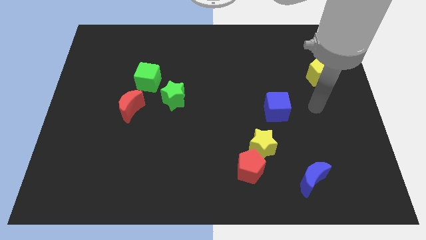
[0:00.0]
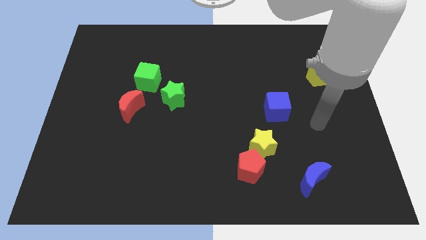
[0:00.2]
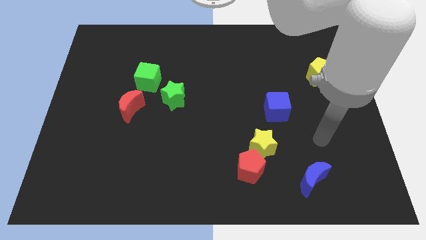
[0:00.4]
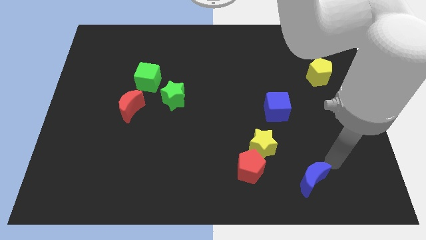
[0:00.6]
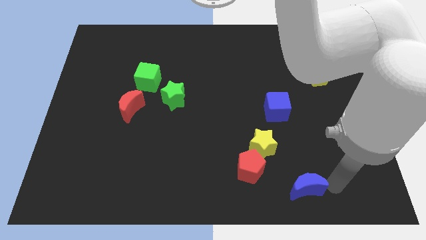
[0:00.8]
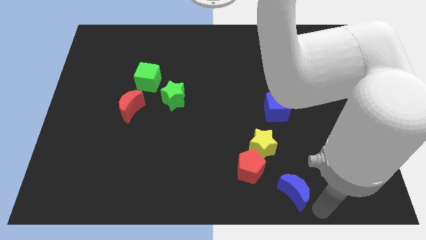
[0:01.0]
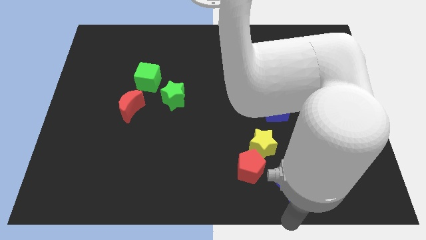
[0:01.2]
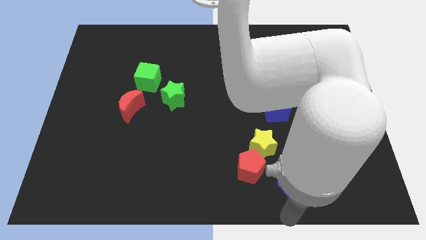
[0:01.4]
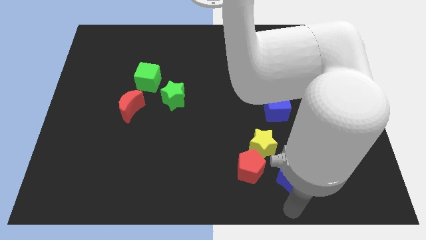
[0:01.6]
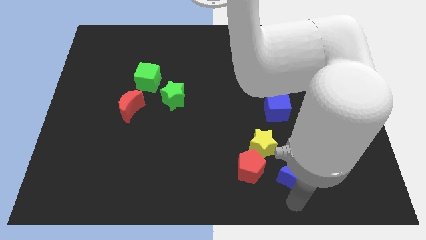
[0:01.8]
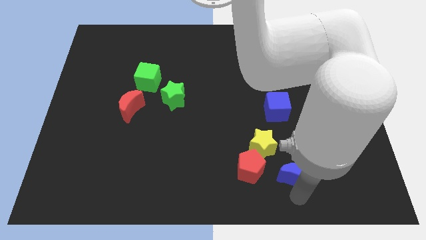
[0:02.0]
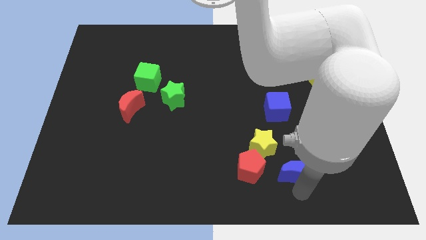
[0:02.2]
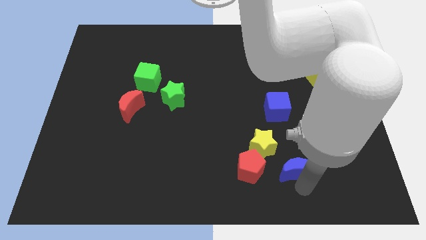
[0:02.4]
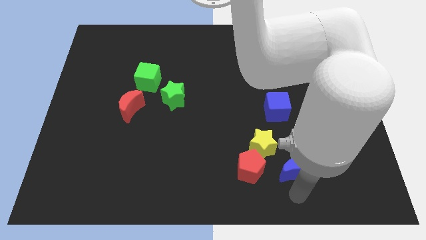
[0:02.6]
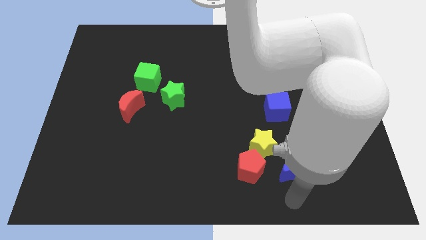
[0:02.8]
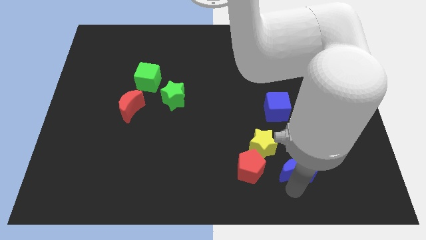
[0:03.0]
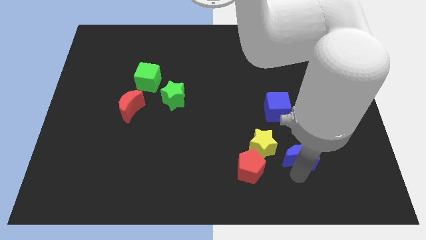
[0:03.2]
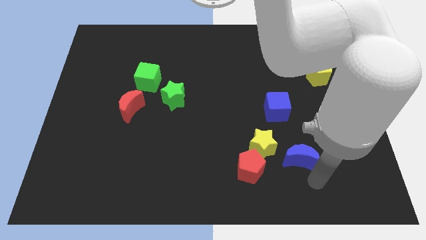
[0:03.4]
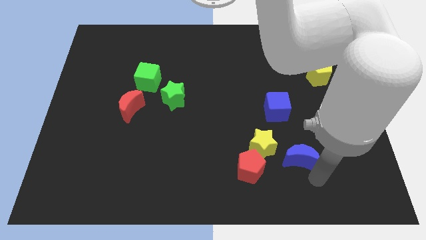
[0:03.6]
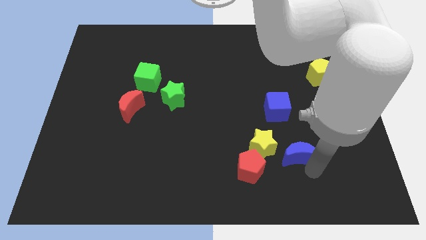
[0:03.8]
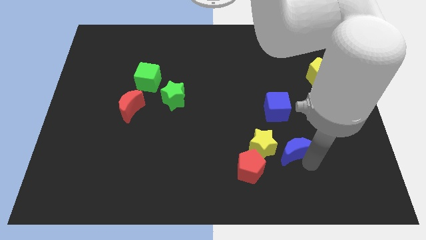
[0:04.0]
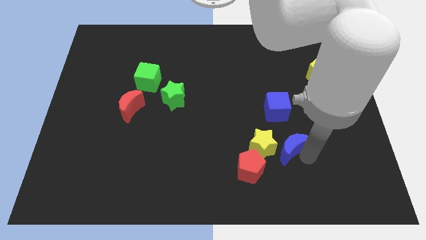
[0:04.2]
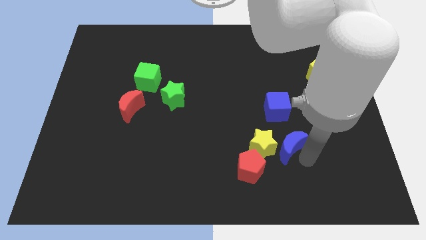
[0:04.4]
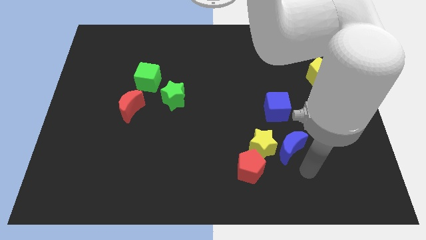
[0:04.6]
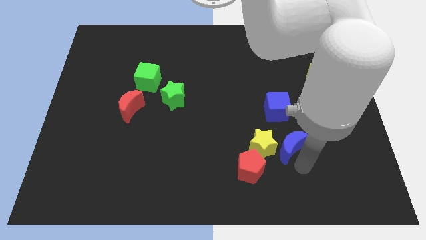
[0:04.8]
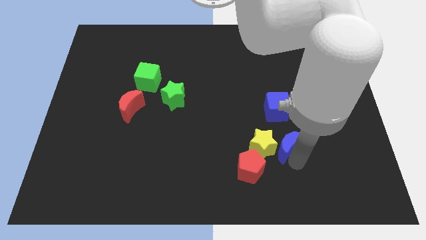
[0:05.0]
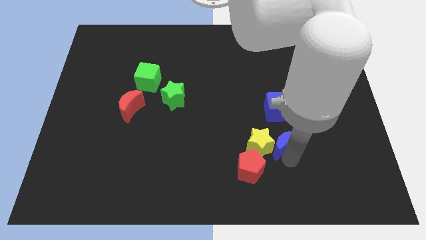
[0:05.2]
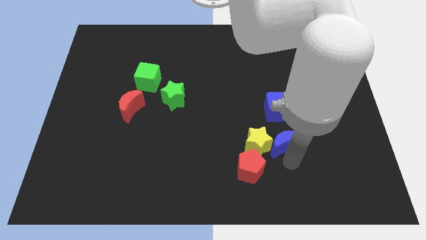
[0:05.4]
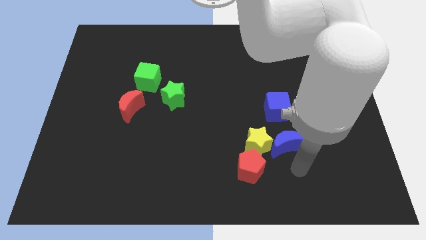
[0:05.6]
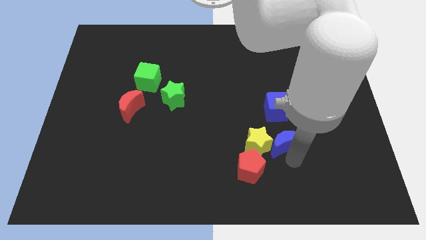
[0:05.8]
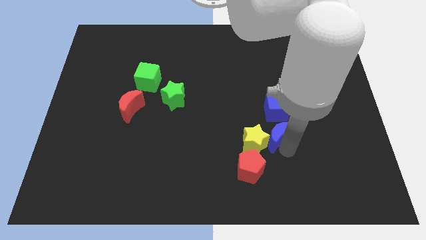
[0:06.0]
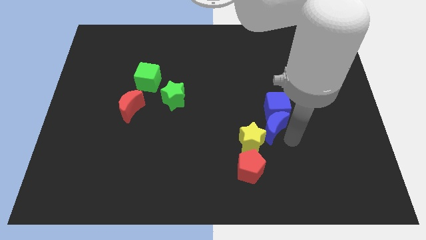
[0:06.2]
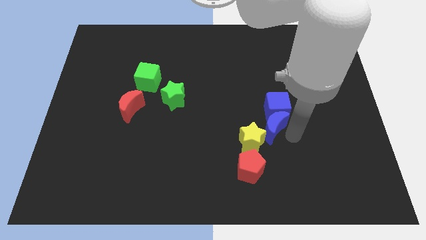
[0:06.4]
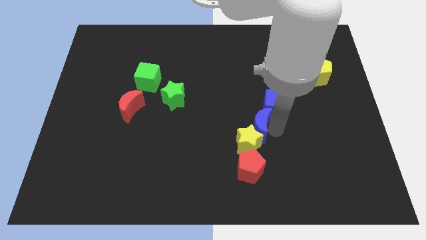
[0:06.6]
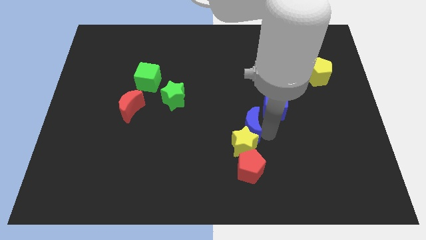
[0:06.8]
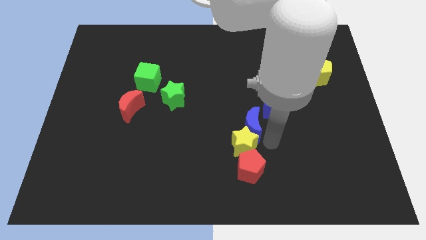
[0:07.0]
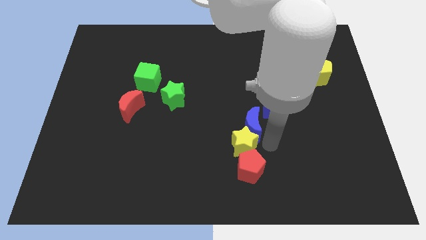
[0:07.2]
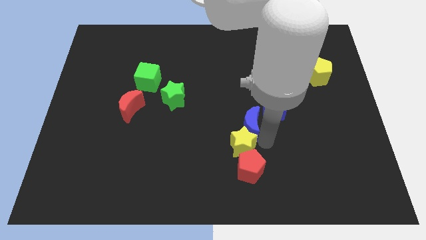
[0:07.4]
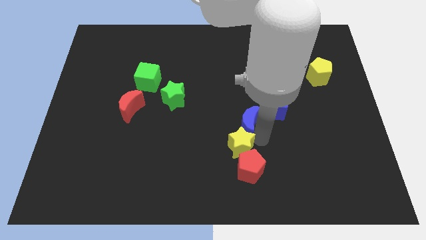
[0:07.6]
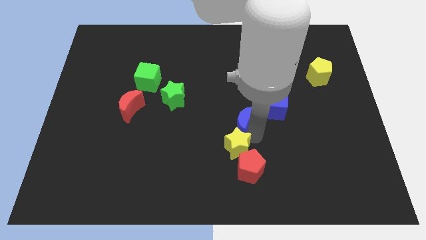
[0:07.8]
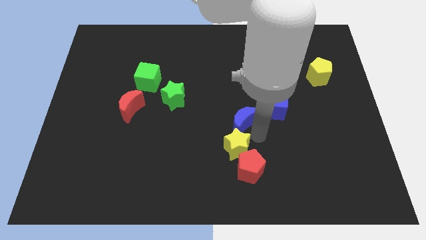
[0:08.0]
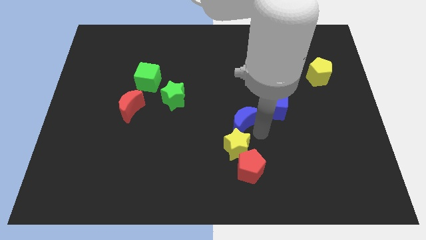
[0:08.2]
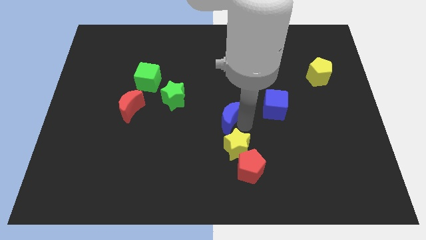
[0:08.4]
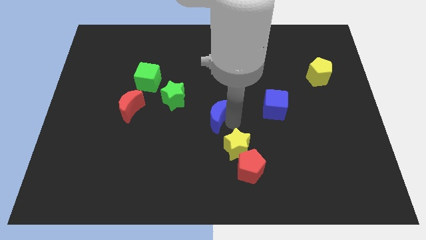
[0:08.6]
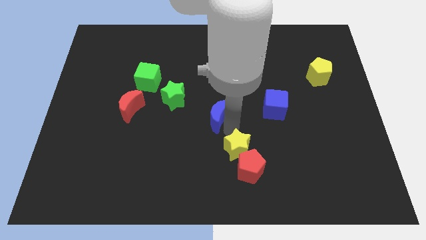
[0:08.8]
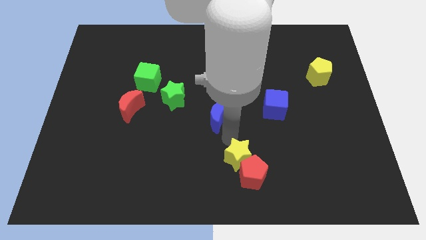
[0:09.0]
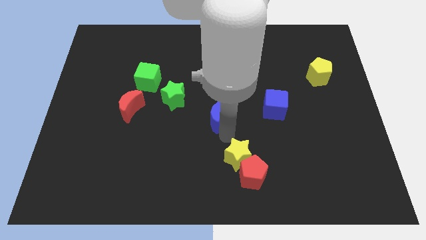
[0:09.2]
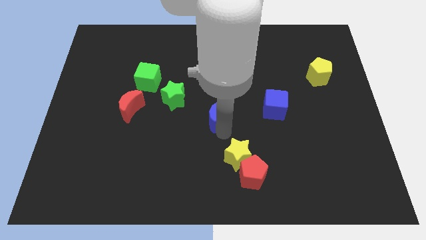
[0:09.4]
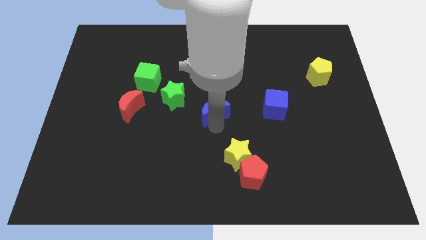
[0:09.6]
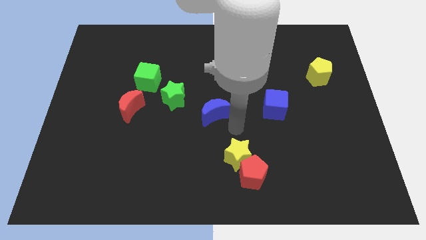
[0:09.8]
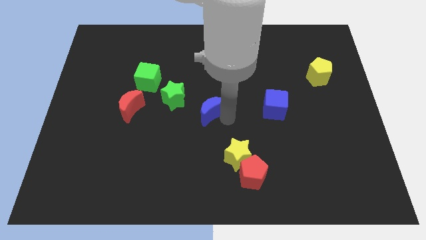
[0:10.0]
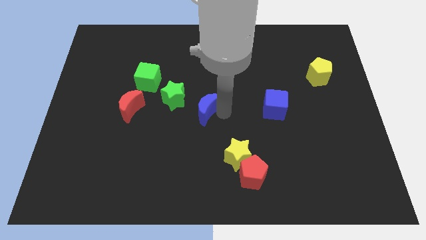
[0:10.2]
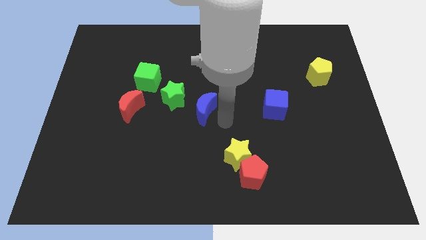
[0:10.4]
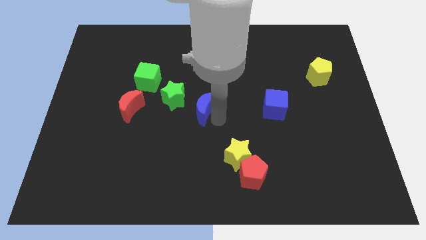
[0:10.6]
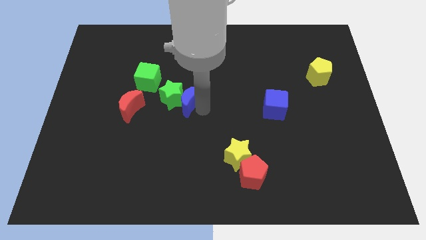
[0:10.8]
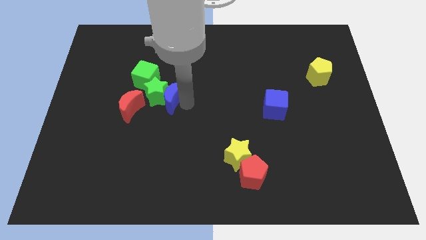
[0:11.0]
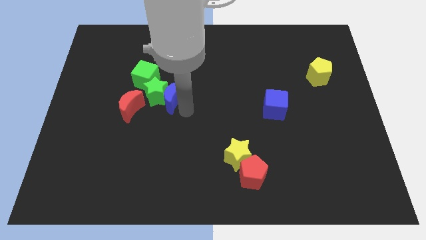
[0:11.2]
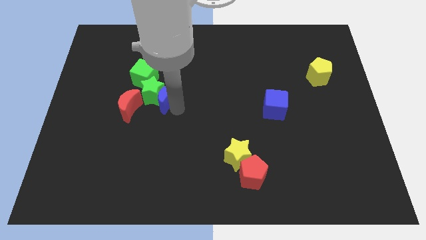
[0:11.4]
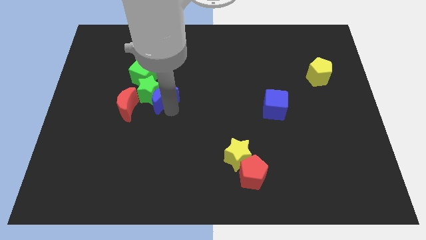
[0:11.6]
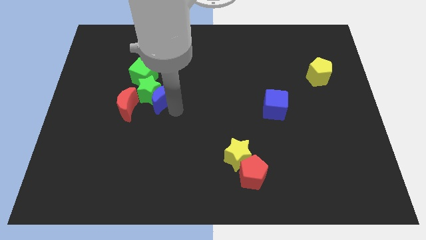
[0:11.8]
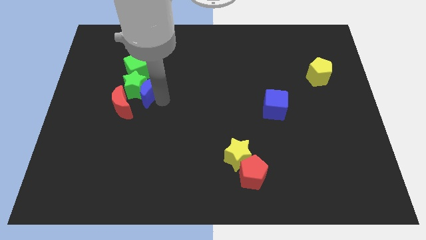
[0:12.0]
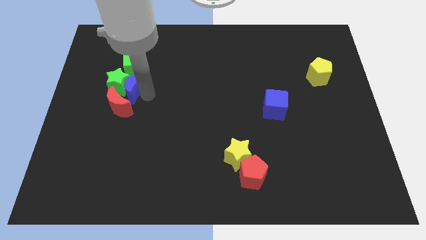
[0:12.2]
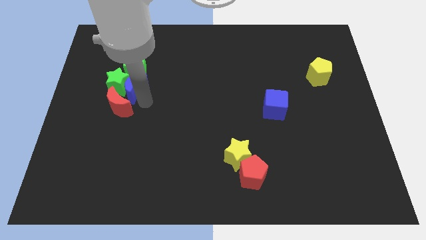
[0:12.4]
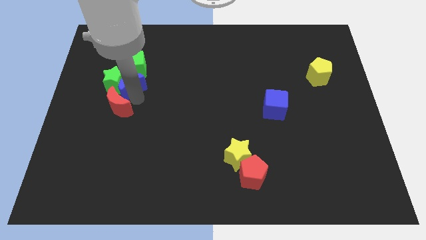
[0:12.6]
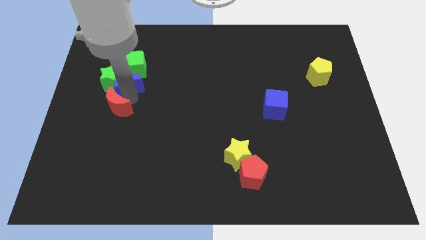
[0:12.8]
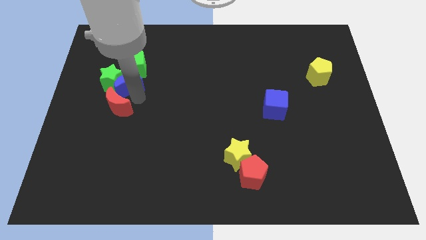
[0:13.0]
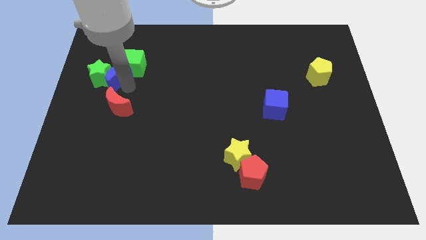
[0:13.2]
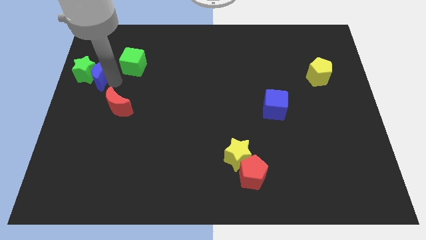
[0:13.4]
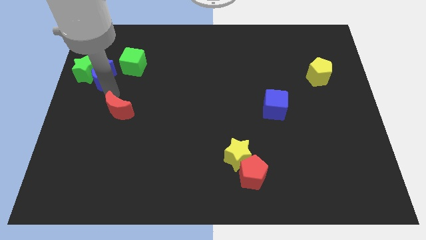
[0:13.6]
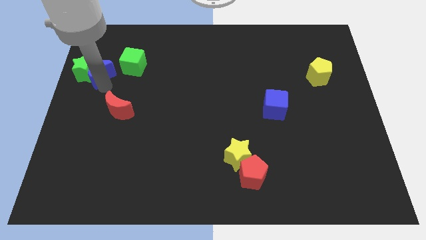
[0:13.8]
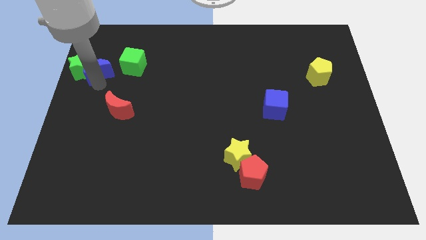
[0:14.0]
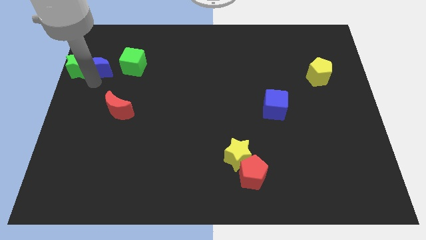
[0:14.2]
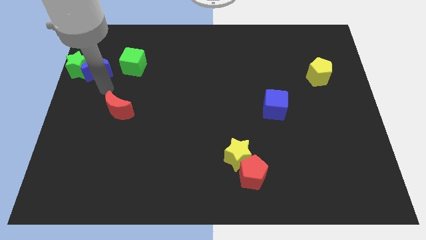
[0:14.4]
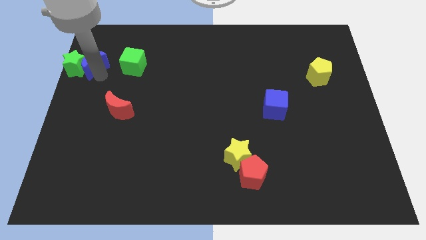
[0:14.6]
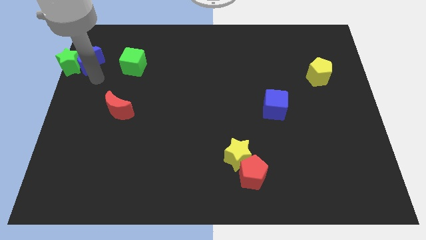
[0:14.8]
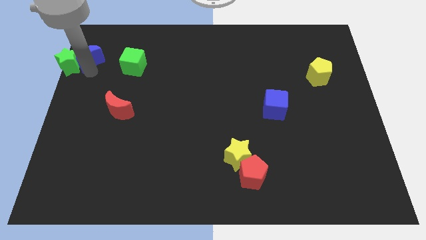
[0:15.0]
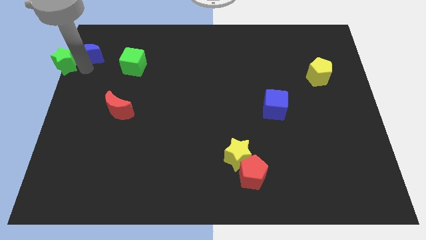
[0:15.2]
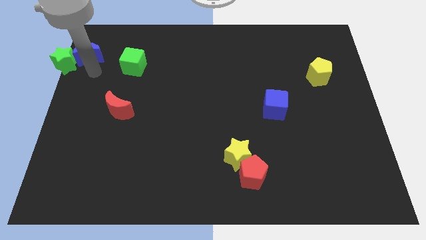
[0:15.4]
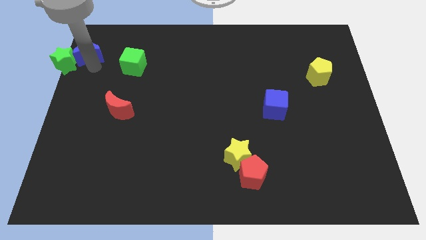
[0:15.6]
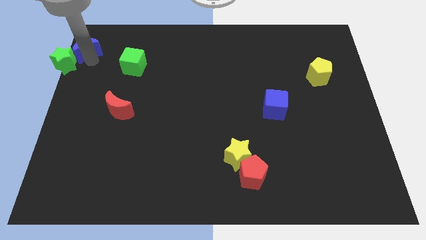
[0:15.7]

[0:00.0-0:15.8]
move the blue moon to the top left corner
